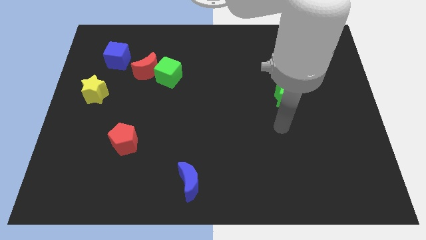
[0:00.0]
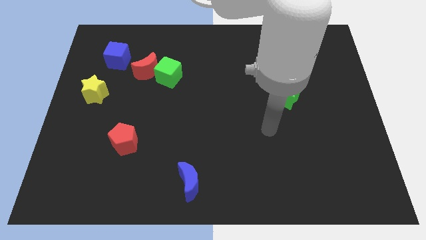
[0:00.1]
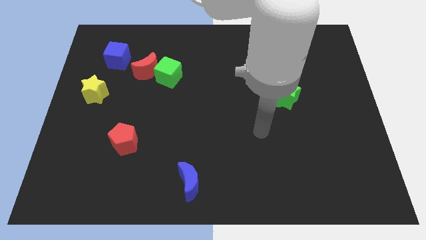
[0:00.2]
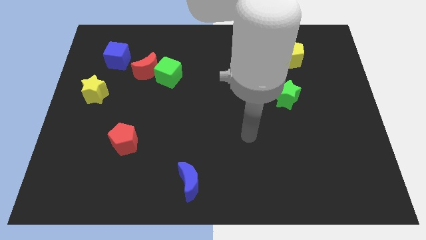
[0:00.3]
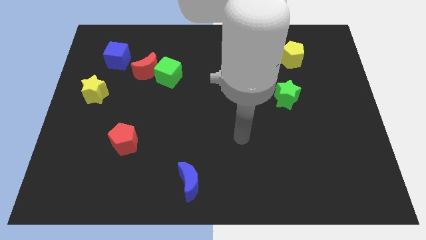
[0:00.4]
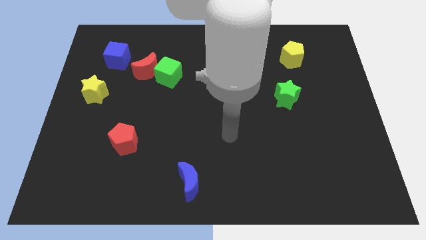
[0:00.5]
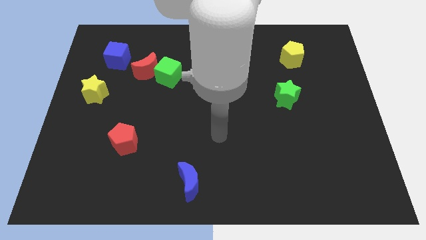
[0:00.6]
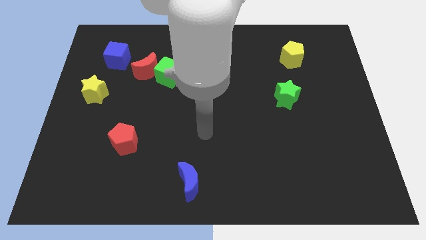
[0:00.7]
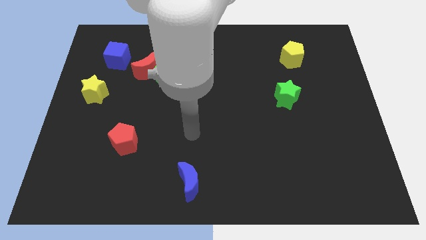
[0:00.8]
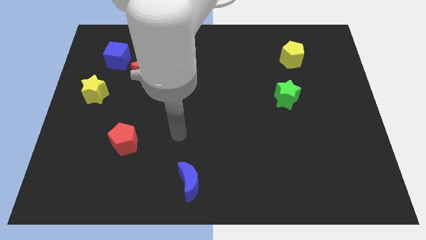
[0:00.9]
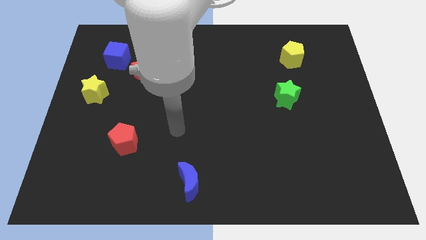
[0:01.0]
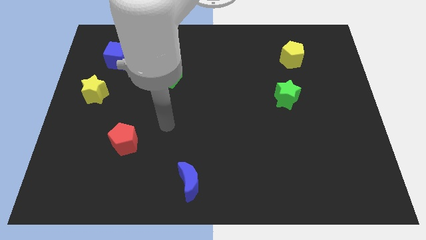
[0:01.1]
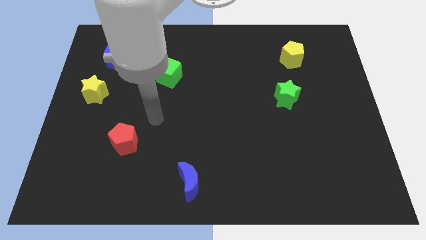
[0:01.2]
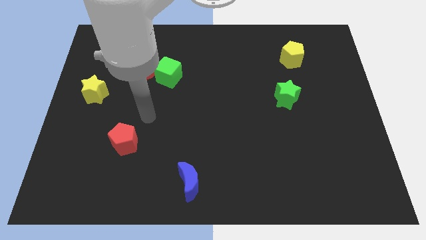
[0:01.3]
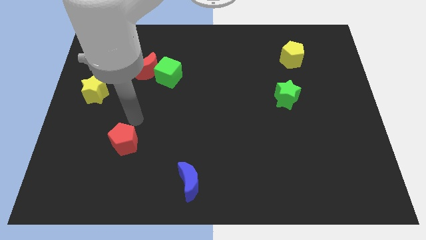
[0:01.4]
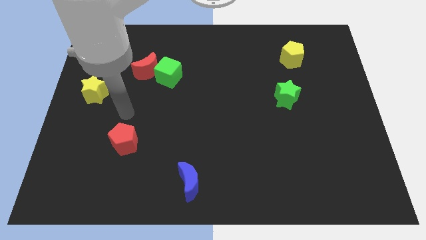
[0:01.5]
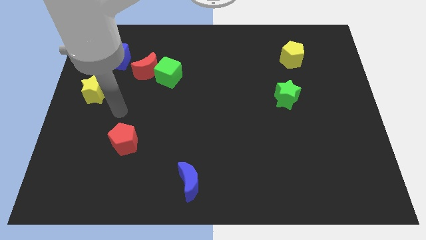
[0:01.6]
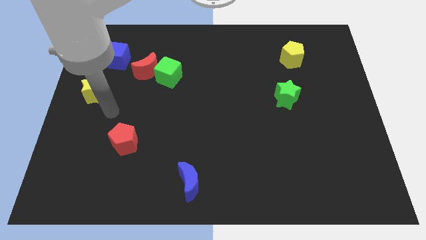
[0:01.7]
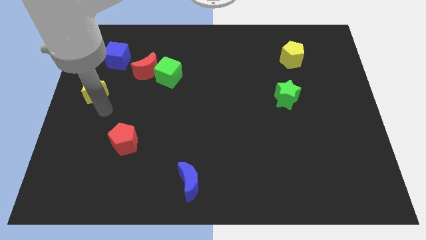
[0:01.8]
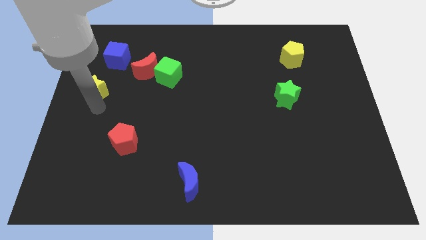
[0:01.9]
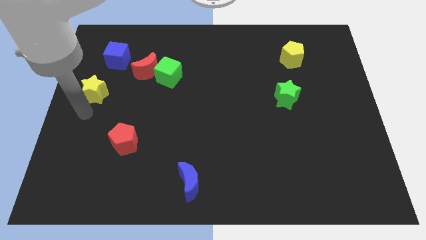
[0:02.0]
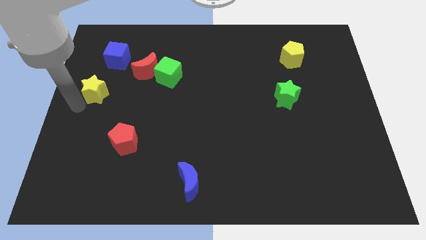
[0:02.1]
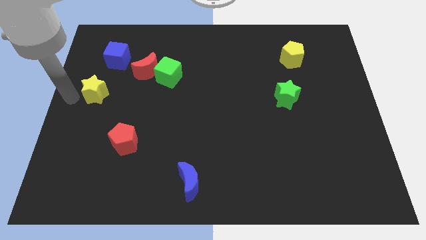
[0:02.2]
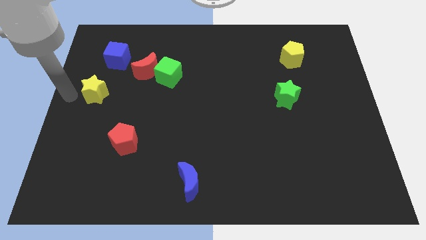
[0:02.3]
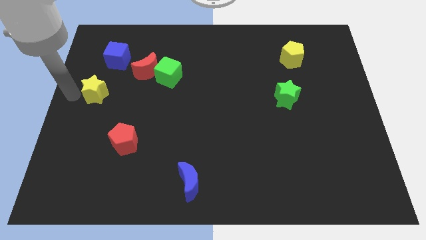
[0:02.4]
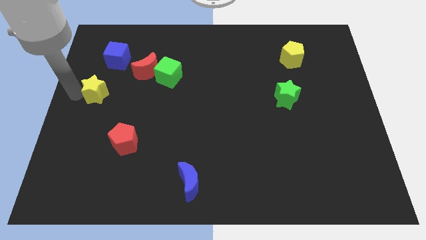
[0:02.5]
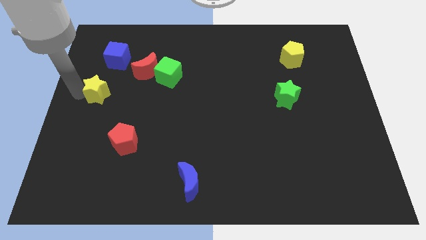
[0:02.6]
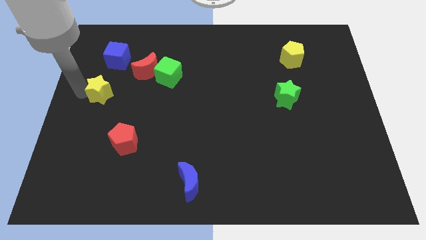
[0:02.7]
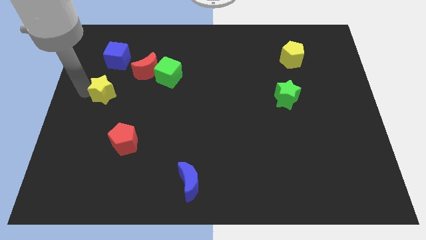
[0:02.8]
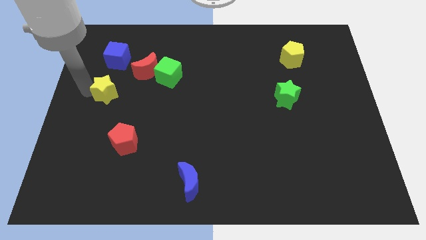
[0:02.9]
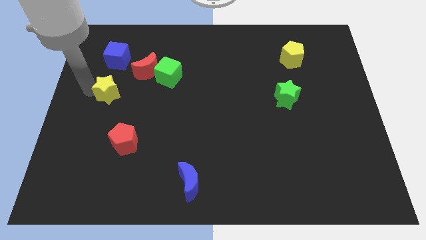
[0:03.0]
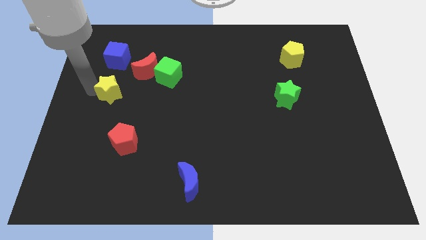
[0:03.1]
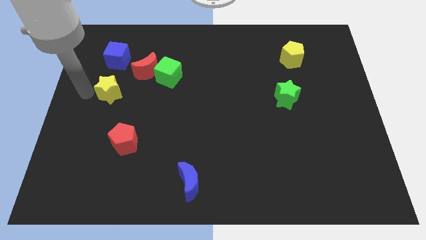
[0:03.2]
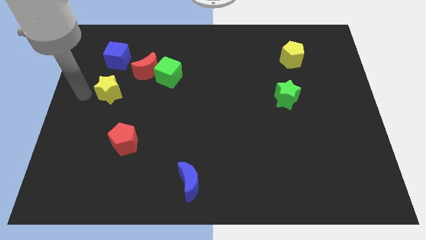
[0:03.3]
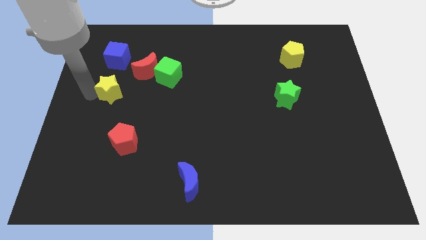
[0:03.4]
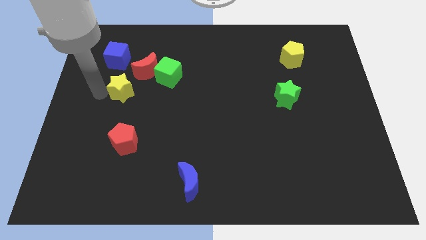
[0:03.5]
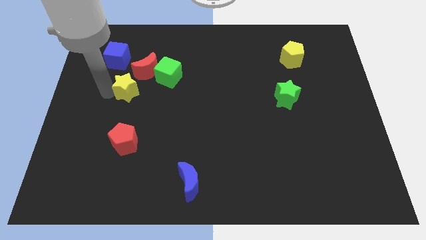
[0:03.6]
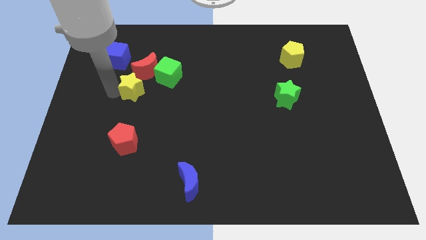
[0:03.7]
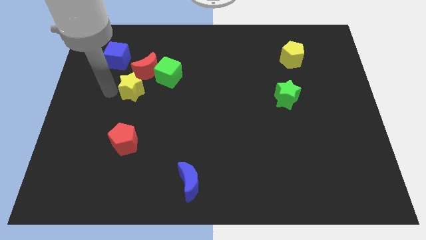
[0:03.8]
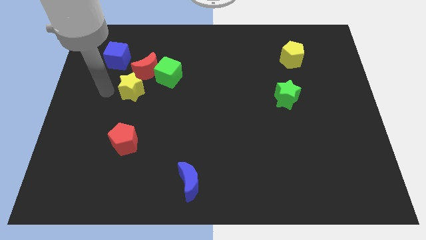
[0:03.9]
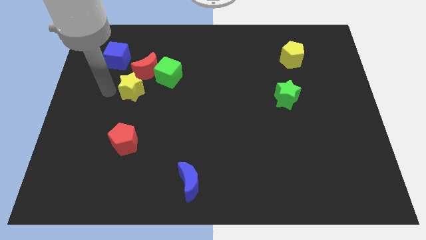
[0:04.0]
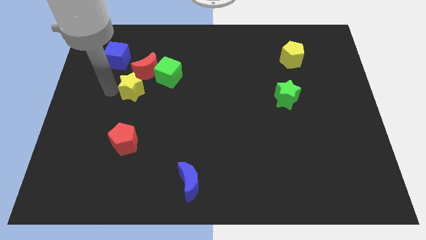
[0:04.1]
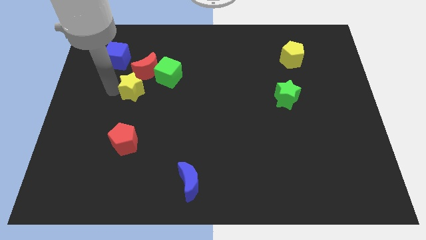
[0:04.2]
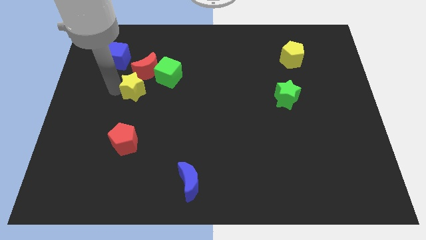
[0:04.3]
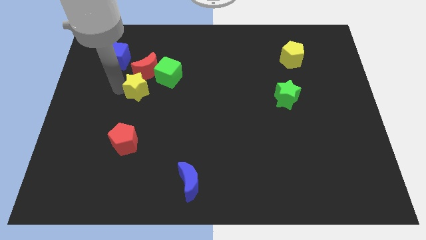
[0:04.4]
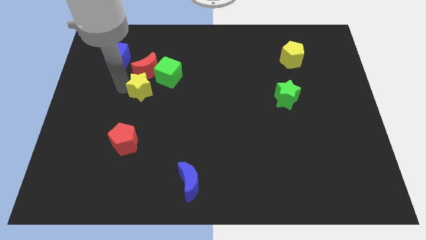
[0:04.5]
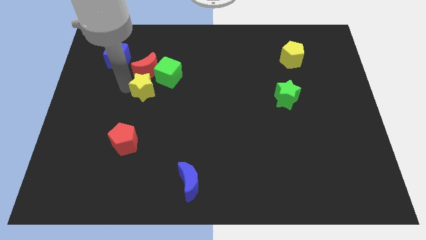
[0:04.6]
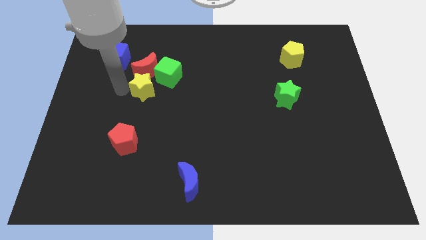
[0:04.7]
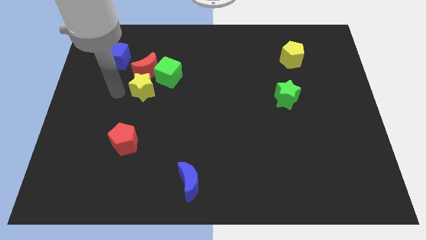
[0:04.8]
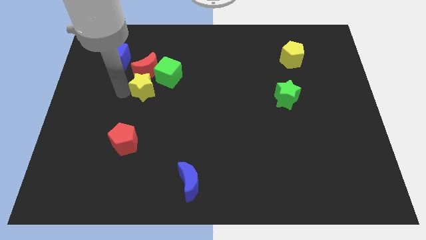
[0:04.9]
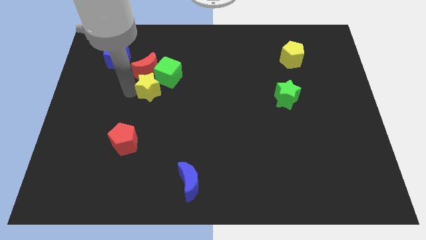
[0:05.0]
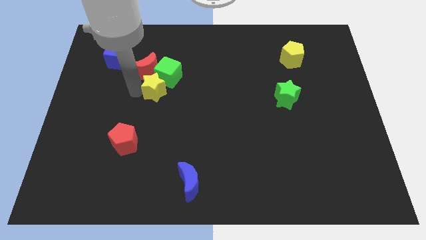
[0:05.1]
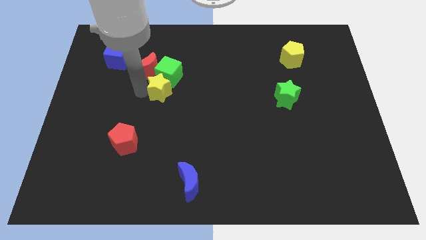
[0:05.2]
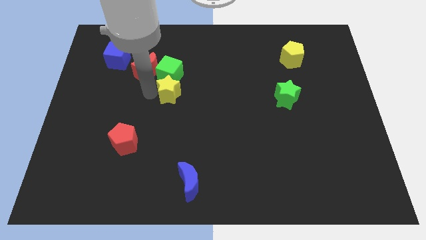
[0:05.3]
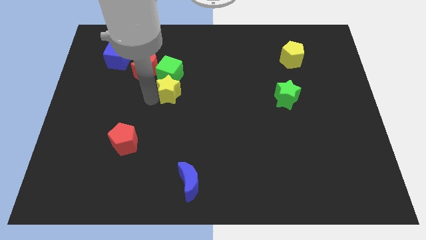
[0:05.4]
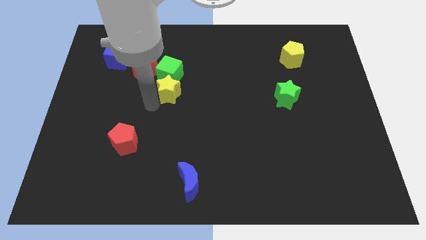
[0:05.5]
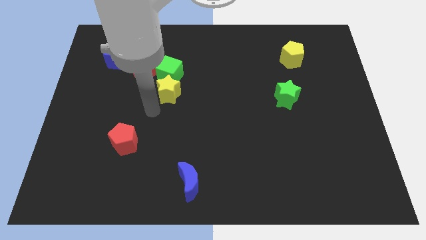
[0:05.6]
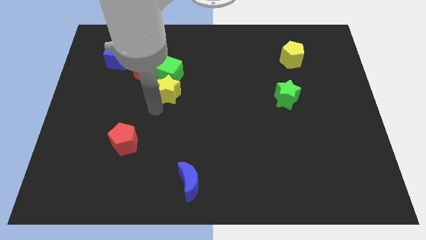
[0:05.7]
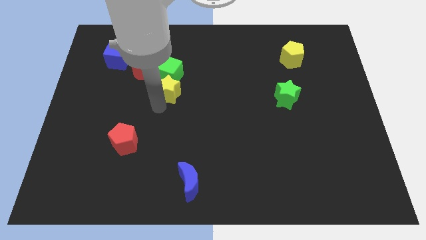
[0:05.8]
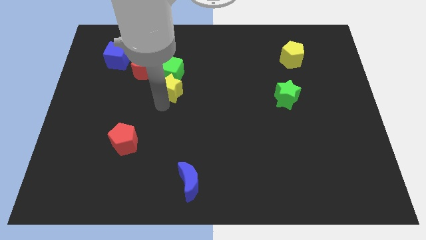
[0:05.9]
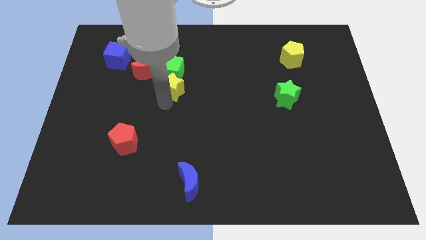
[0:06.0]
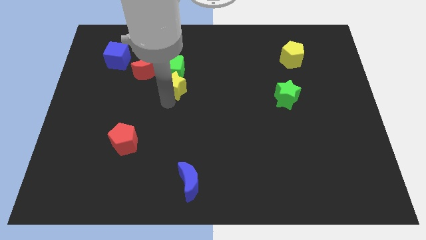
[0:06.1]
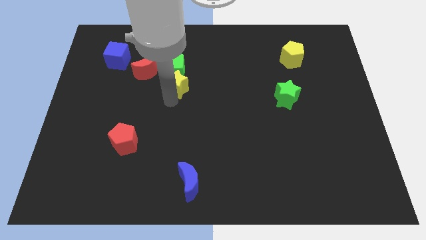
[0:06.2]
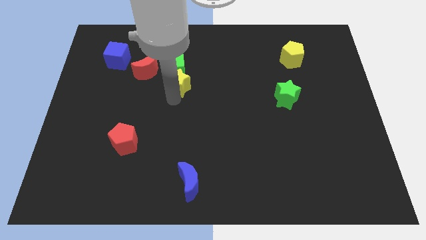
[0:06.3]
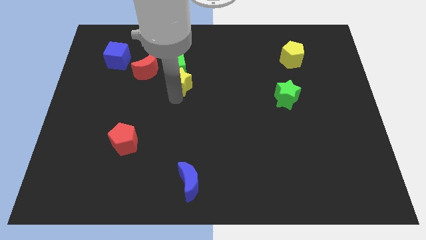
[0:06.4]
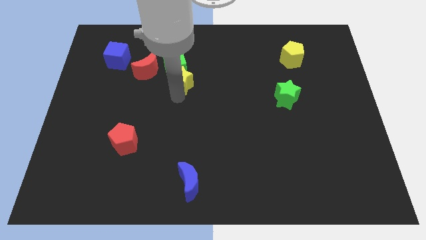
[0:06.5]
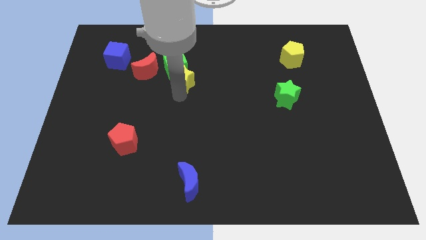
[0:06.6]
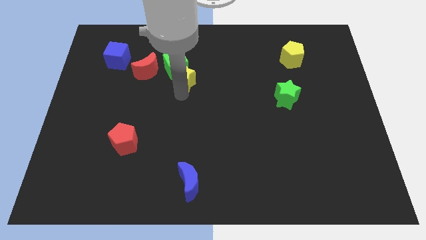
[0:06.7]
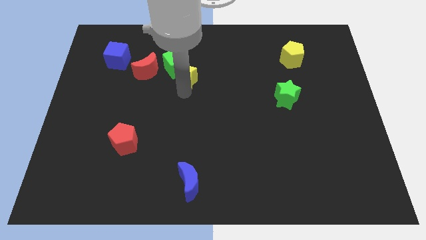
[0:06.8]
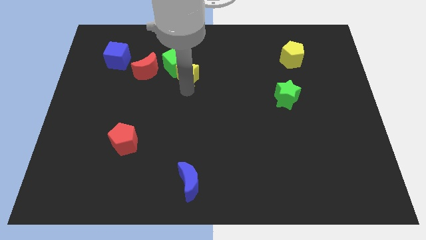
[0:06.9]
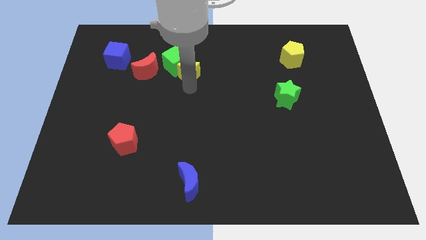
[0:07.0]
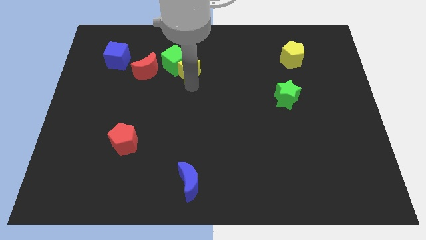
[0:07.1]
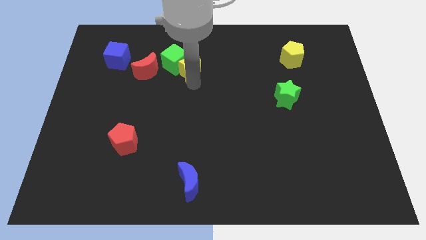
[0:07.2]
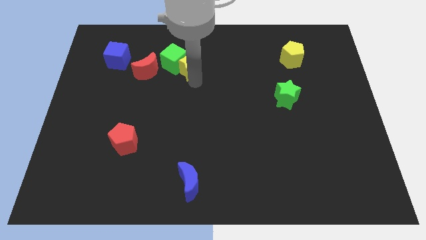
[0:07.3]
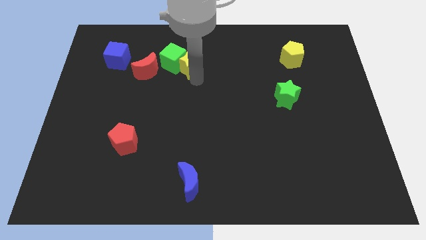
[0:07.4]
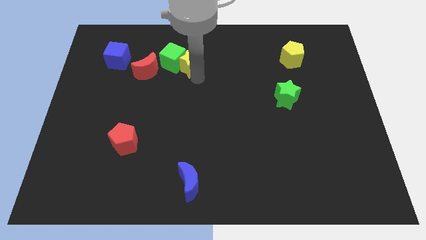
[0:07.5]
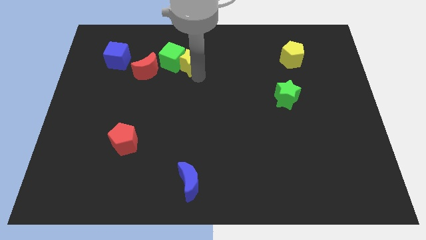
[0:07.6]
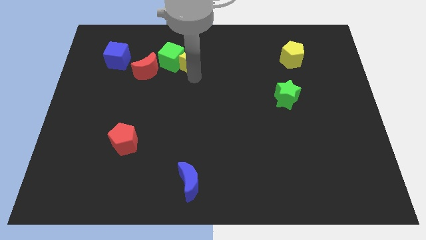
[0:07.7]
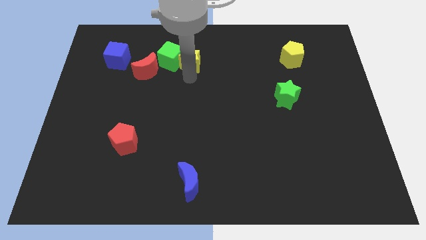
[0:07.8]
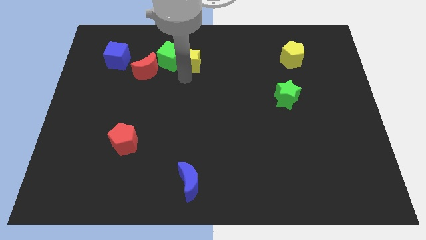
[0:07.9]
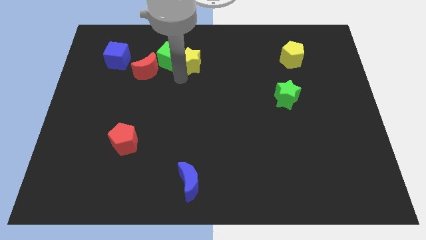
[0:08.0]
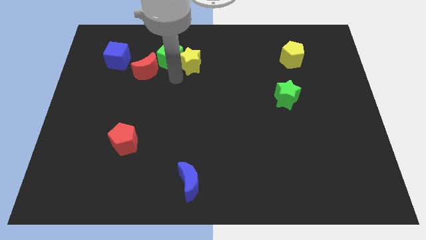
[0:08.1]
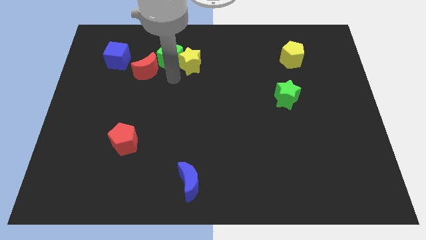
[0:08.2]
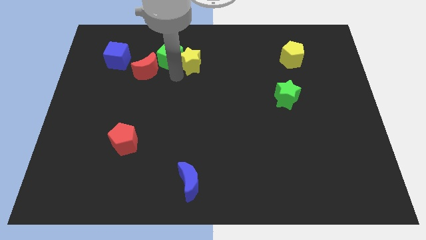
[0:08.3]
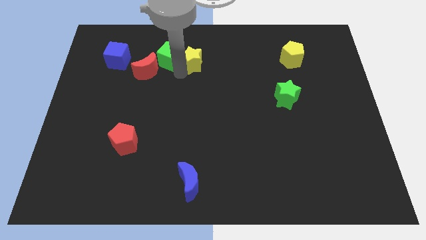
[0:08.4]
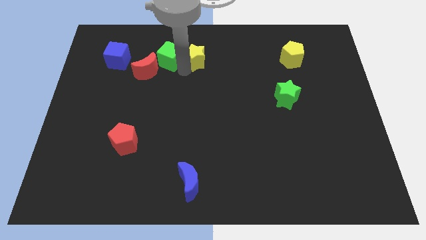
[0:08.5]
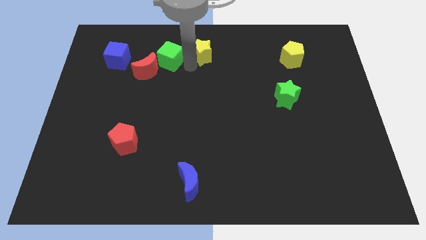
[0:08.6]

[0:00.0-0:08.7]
move the yellow star to the top side
